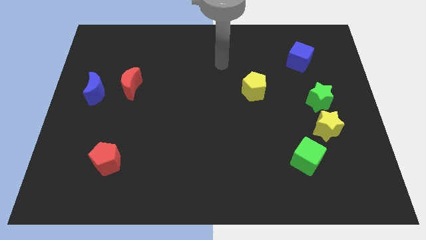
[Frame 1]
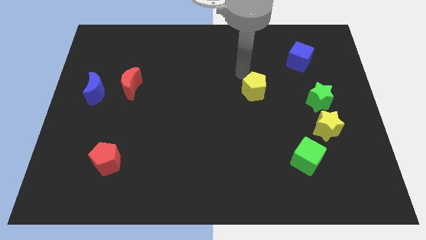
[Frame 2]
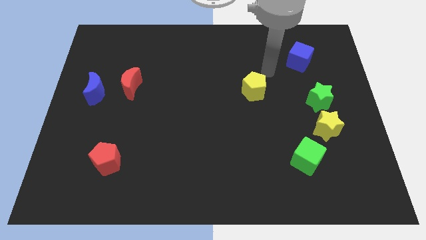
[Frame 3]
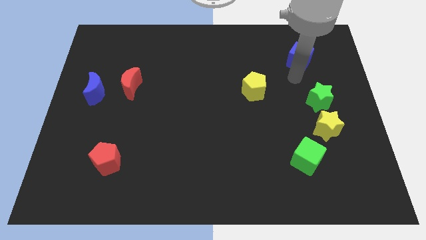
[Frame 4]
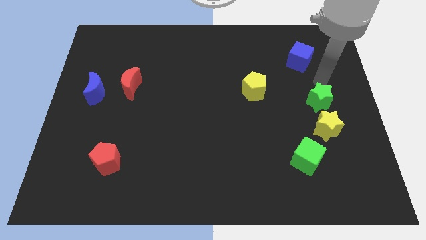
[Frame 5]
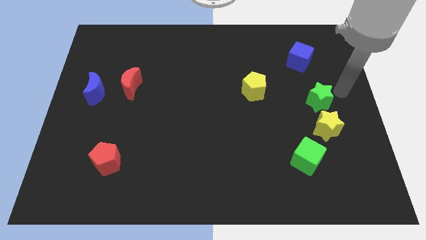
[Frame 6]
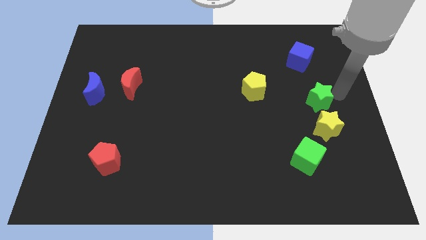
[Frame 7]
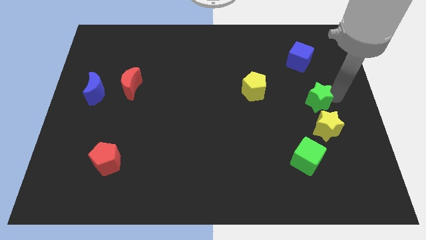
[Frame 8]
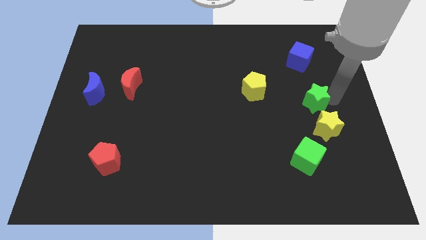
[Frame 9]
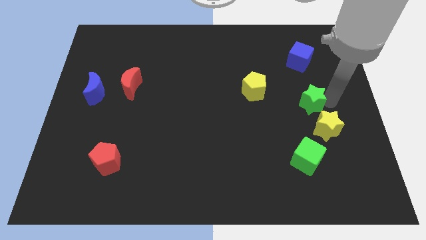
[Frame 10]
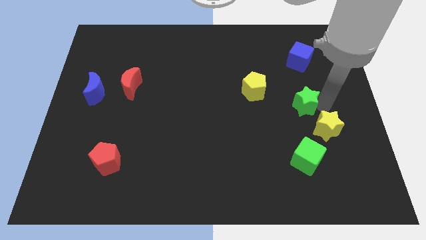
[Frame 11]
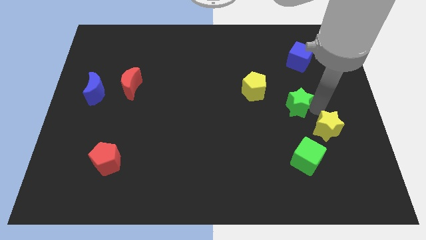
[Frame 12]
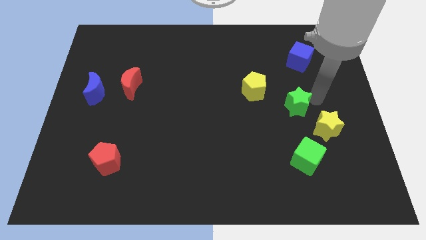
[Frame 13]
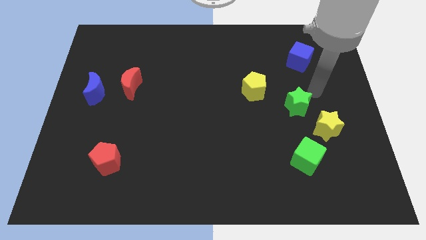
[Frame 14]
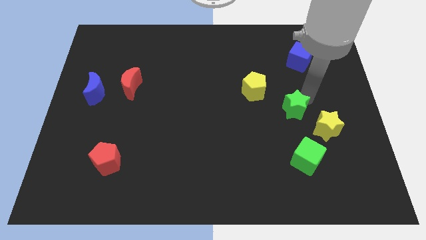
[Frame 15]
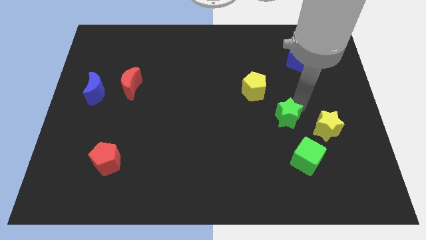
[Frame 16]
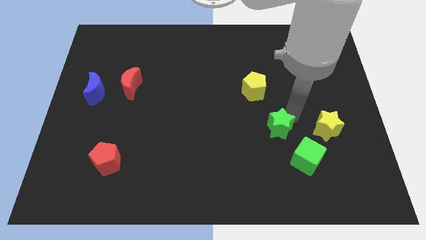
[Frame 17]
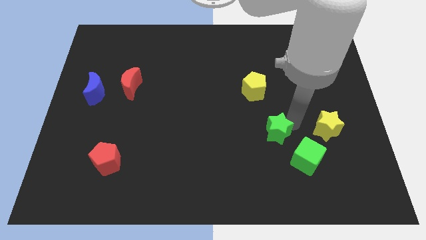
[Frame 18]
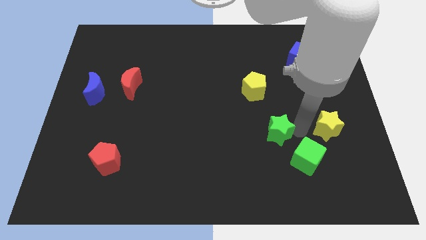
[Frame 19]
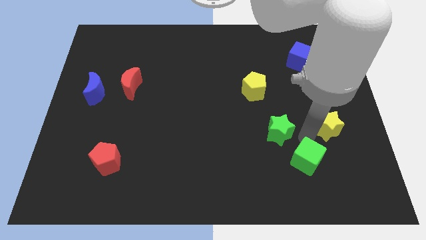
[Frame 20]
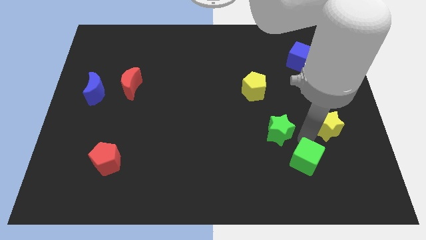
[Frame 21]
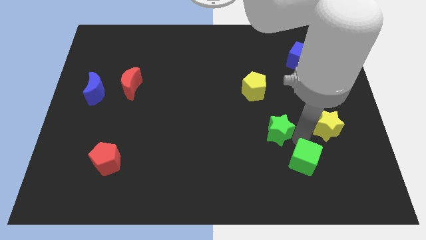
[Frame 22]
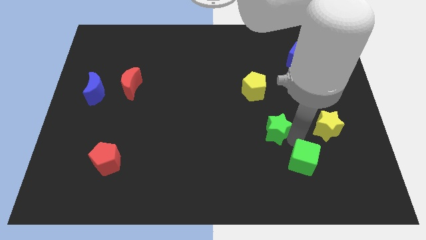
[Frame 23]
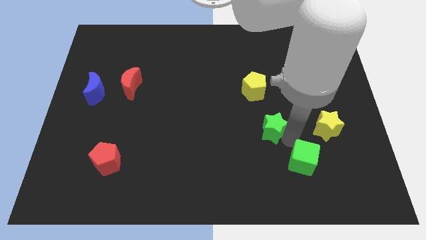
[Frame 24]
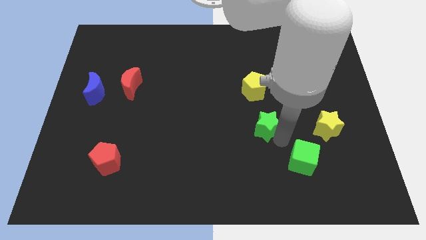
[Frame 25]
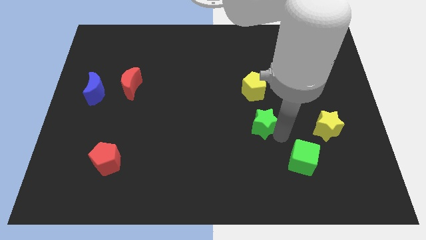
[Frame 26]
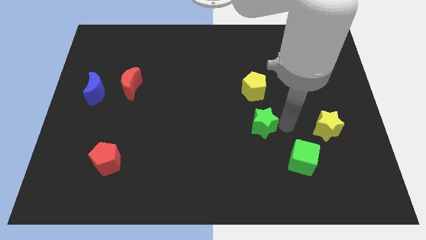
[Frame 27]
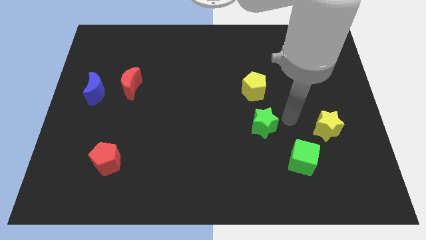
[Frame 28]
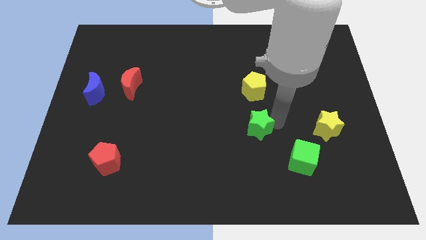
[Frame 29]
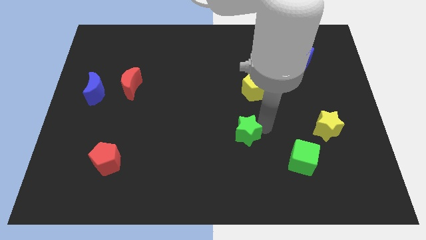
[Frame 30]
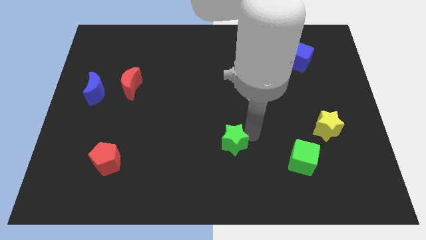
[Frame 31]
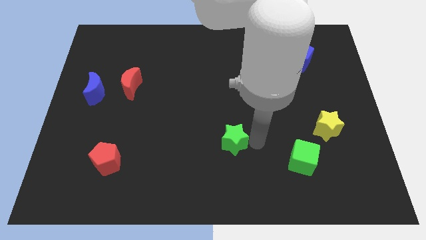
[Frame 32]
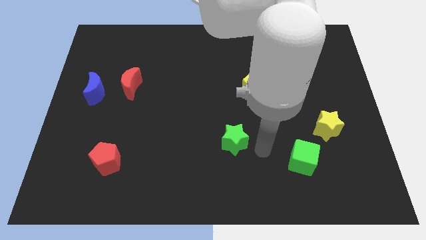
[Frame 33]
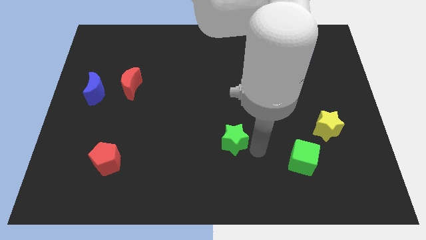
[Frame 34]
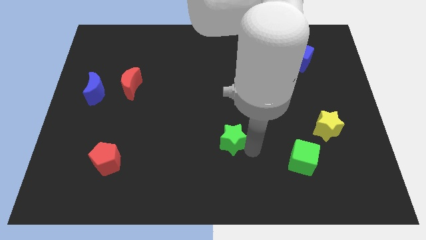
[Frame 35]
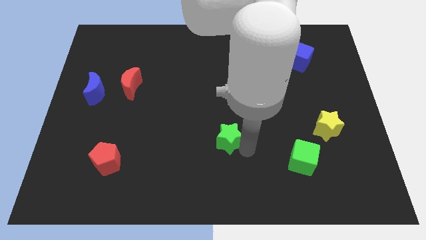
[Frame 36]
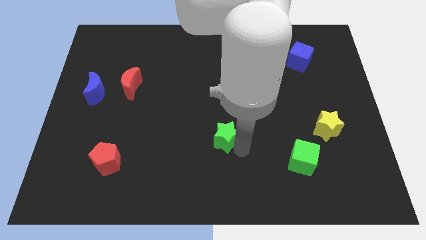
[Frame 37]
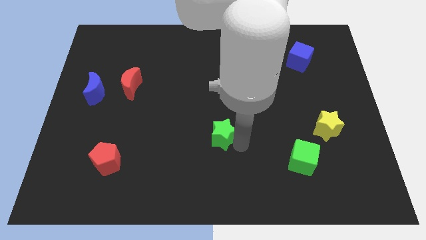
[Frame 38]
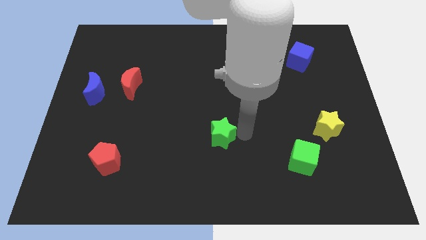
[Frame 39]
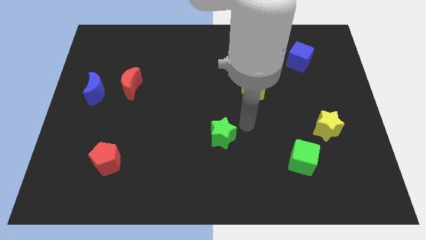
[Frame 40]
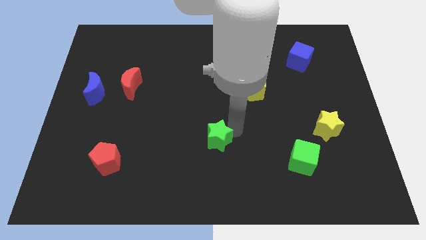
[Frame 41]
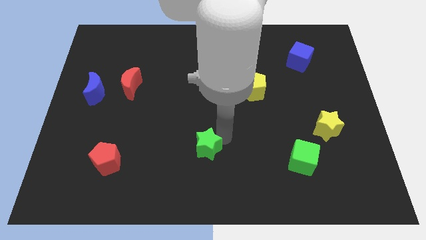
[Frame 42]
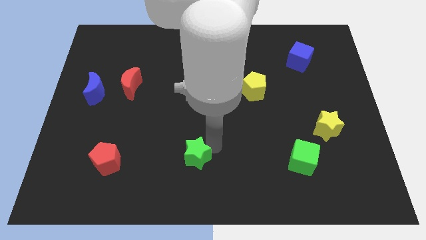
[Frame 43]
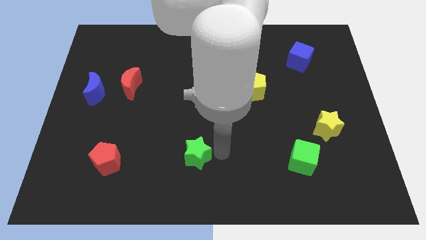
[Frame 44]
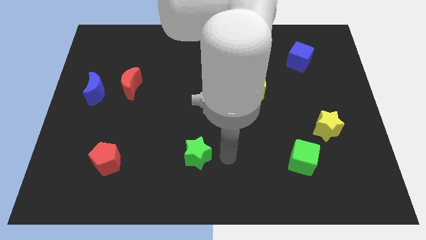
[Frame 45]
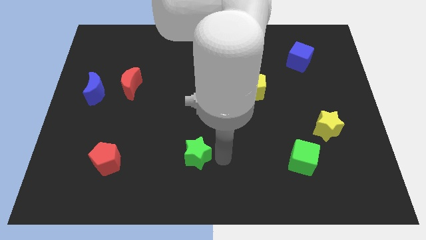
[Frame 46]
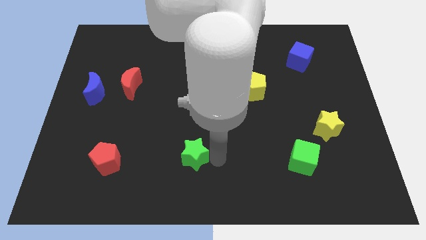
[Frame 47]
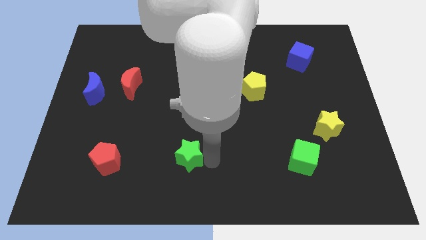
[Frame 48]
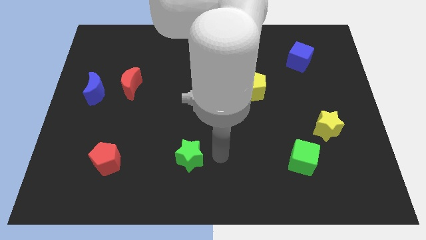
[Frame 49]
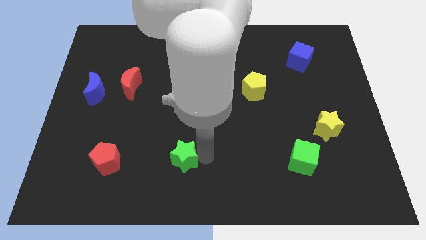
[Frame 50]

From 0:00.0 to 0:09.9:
move the green star just right of the red pentagon

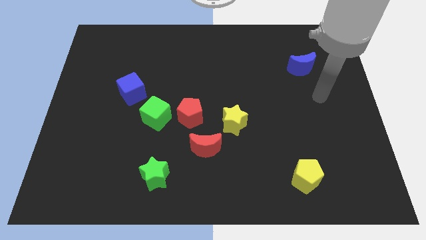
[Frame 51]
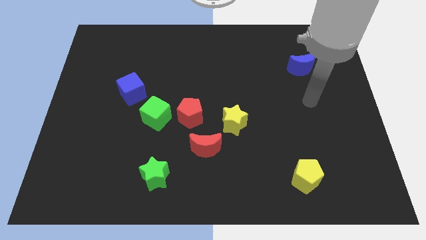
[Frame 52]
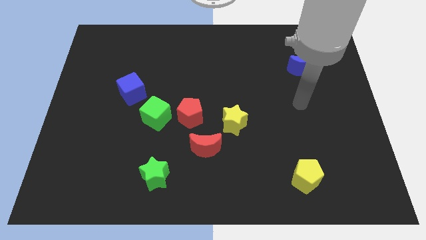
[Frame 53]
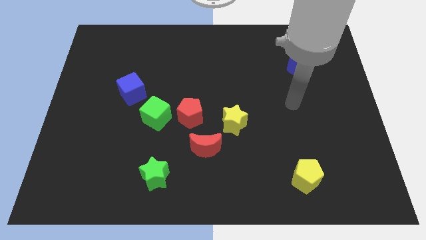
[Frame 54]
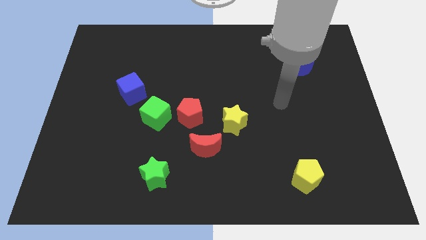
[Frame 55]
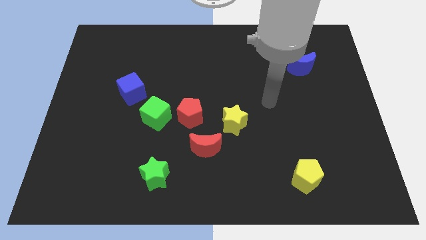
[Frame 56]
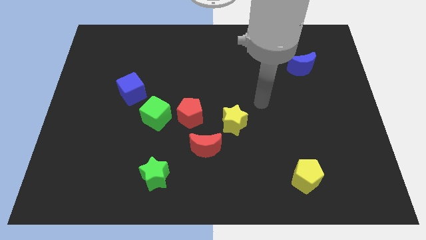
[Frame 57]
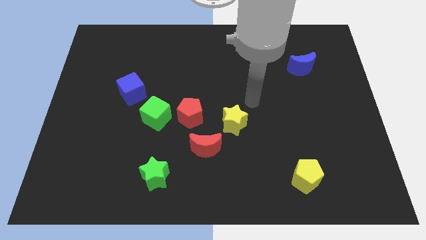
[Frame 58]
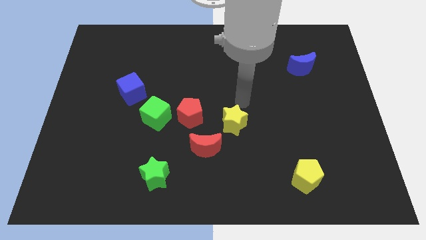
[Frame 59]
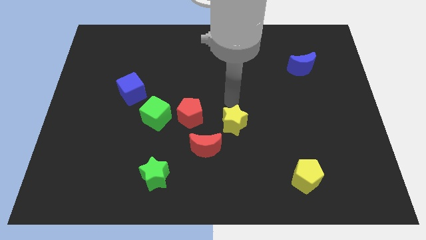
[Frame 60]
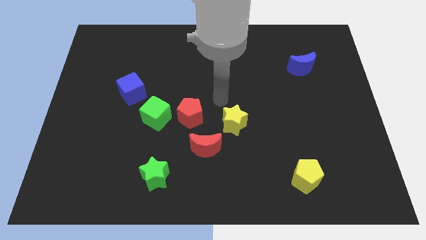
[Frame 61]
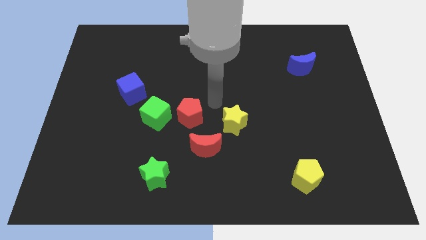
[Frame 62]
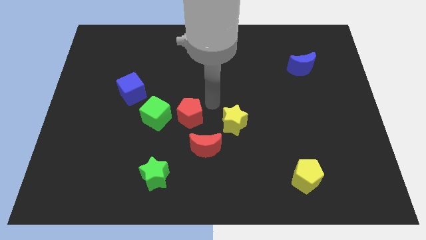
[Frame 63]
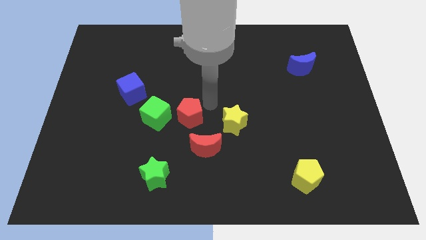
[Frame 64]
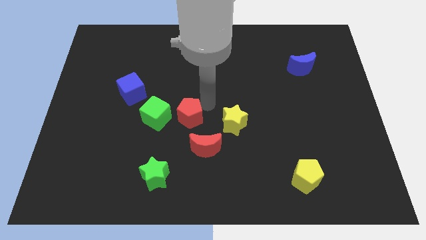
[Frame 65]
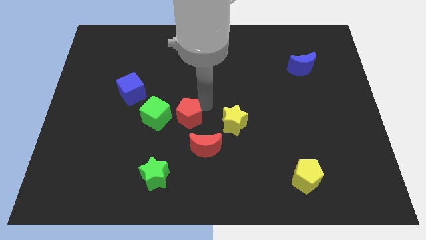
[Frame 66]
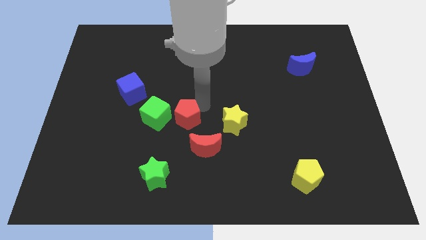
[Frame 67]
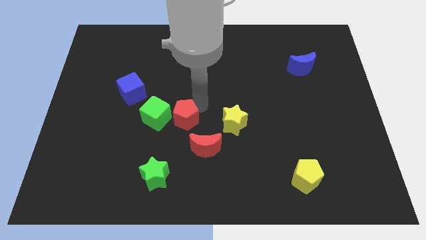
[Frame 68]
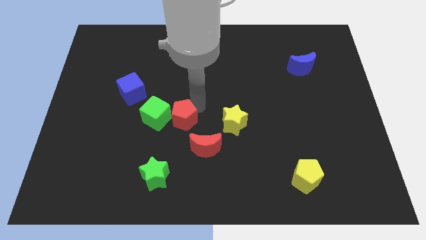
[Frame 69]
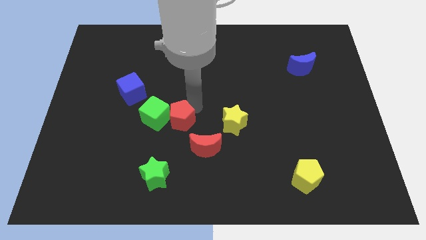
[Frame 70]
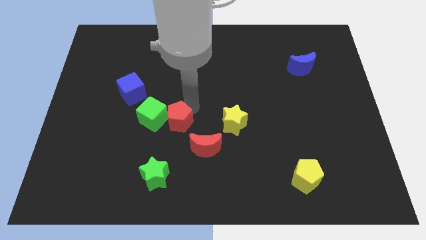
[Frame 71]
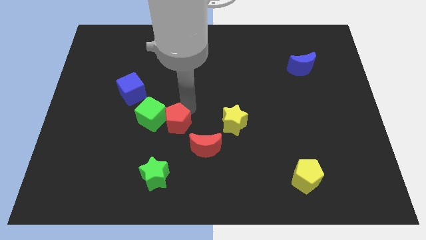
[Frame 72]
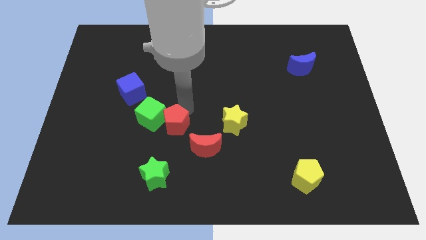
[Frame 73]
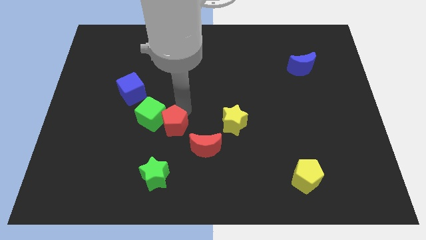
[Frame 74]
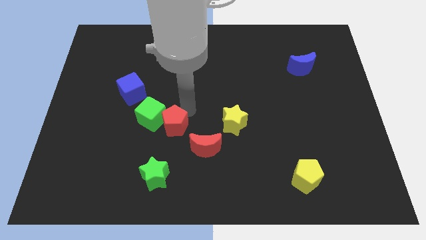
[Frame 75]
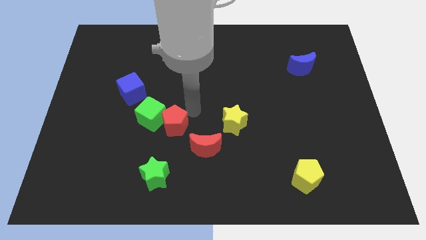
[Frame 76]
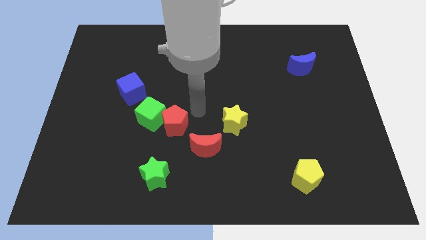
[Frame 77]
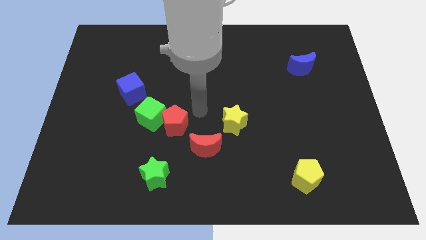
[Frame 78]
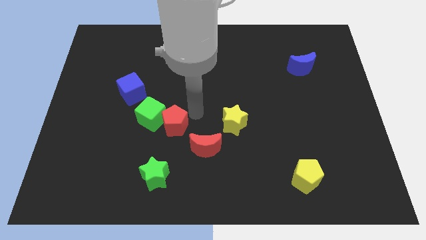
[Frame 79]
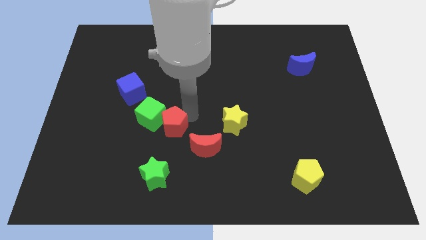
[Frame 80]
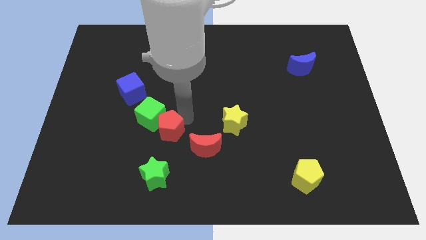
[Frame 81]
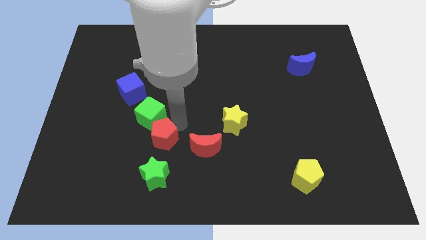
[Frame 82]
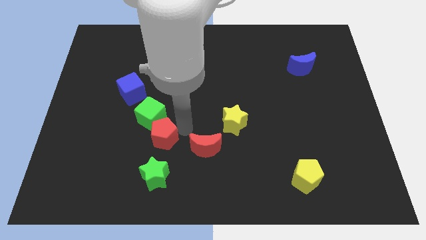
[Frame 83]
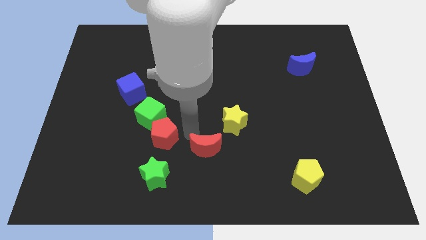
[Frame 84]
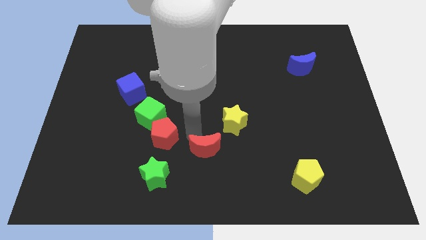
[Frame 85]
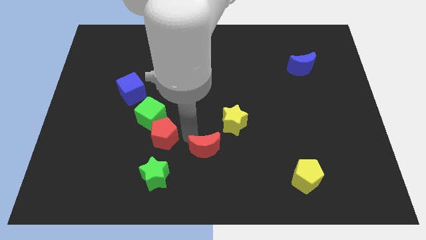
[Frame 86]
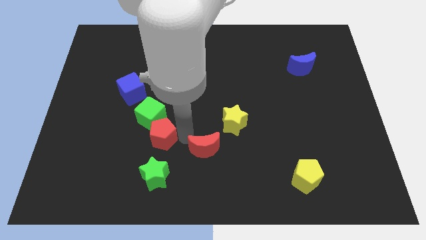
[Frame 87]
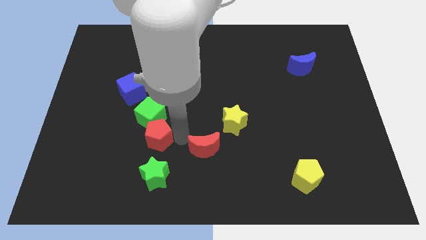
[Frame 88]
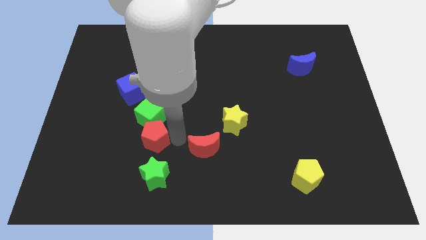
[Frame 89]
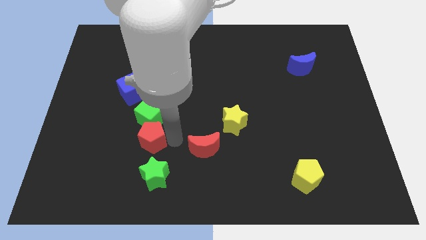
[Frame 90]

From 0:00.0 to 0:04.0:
slide the red pentagon to the bottom left side of the green cube
